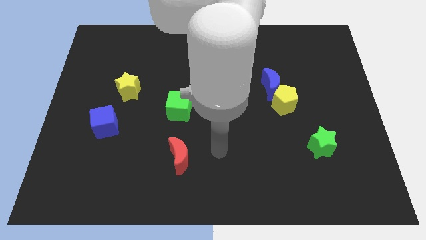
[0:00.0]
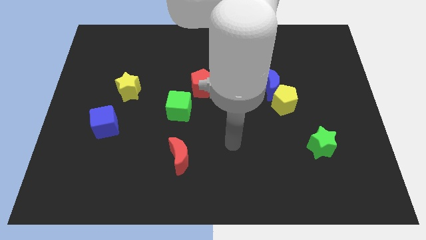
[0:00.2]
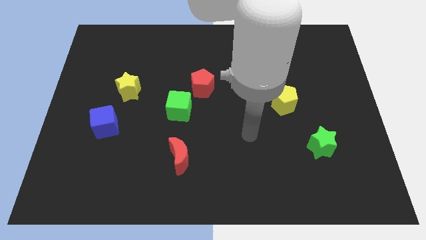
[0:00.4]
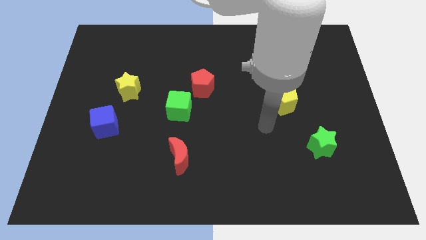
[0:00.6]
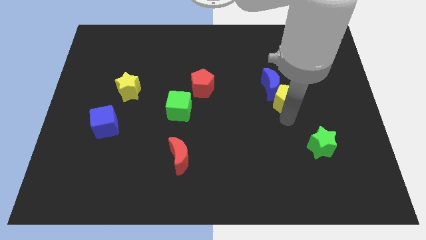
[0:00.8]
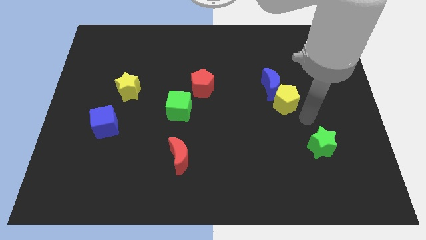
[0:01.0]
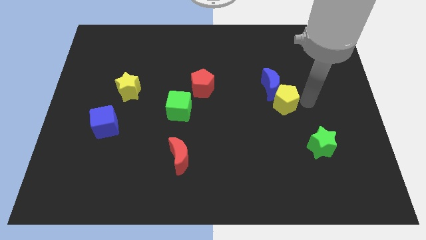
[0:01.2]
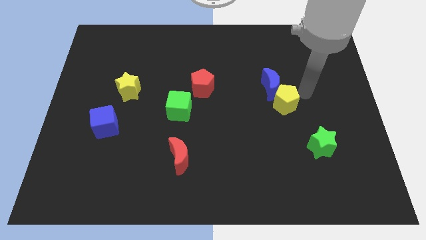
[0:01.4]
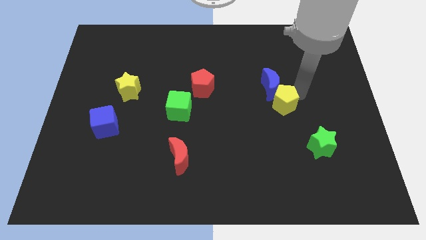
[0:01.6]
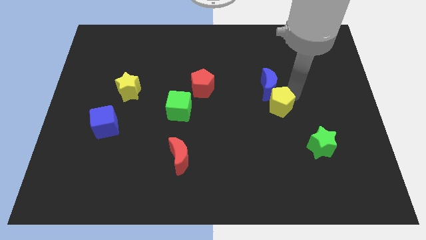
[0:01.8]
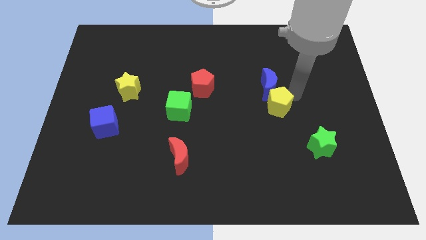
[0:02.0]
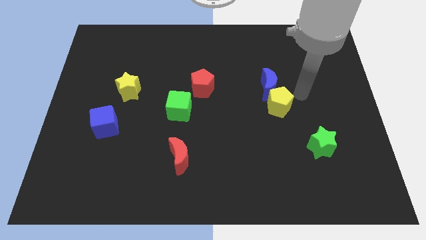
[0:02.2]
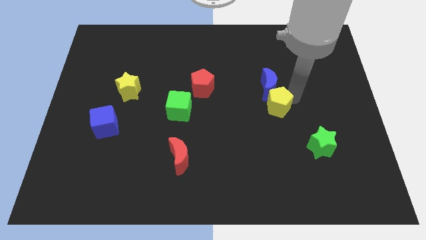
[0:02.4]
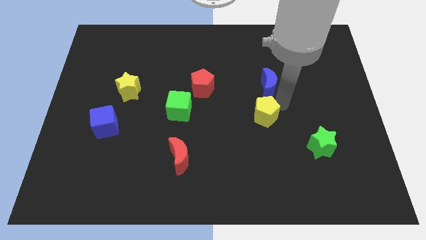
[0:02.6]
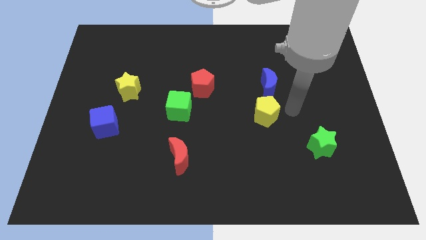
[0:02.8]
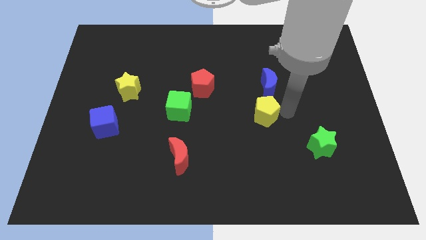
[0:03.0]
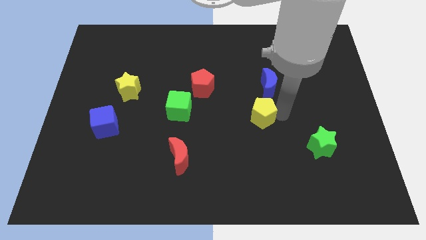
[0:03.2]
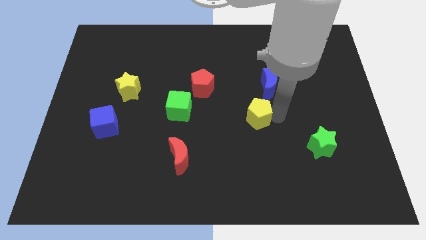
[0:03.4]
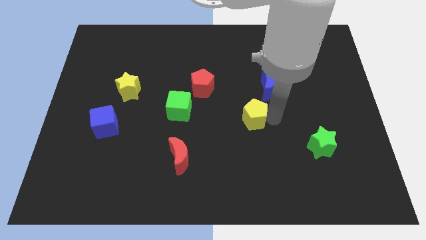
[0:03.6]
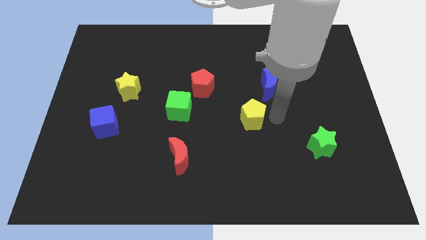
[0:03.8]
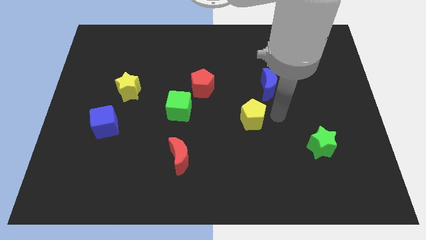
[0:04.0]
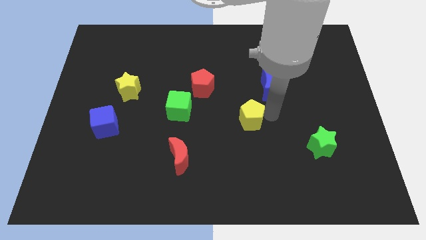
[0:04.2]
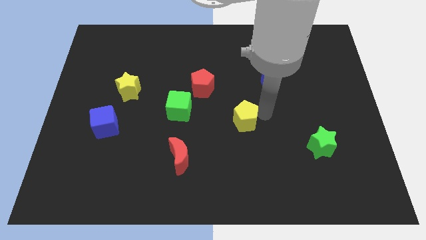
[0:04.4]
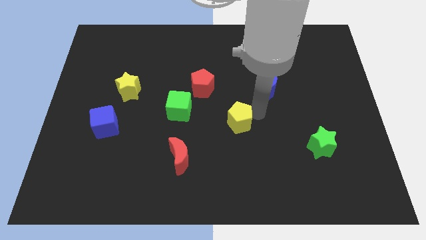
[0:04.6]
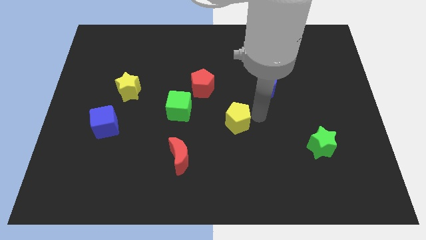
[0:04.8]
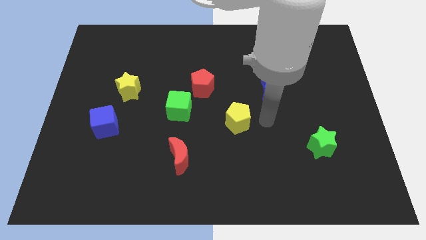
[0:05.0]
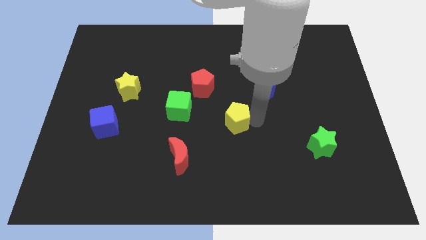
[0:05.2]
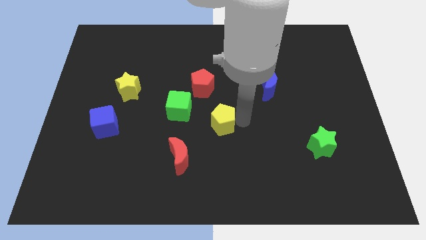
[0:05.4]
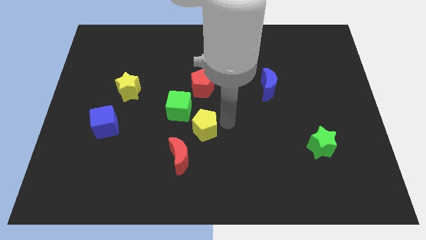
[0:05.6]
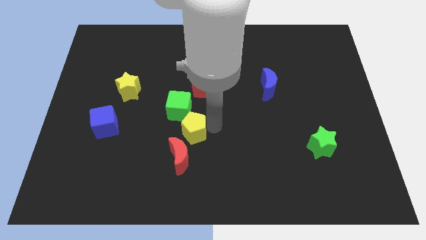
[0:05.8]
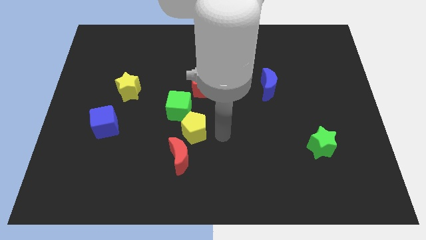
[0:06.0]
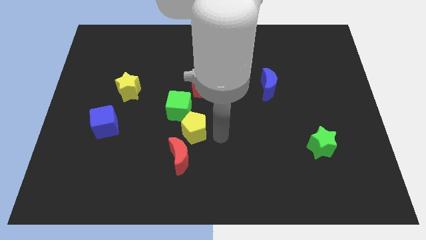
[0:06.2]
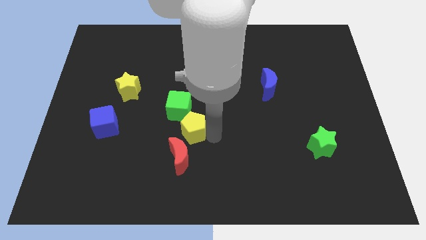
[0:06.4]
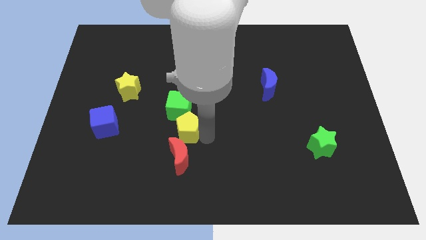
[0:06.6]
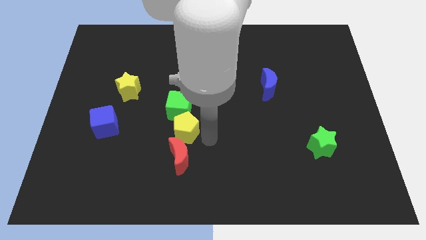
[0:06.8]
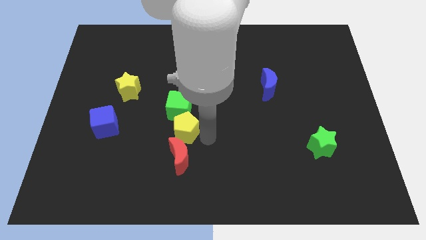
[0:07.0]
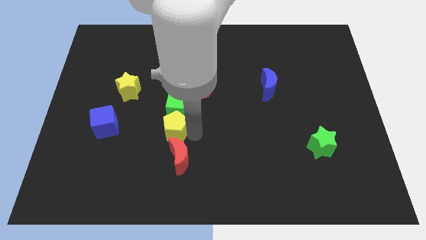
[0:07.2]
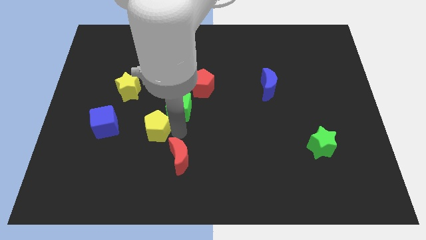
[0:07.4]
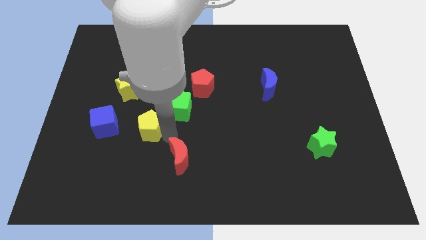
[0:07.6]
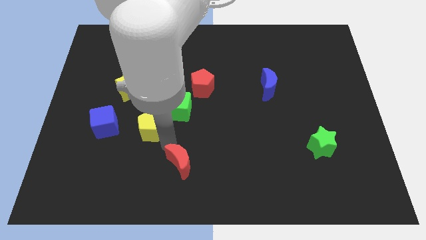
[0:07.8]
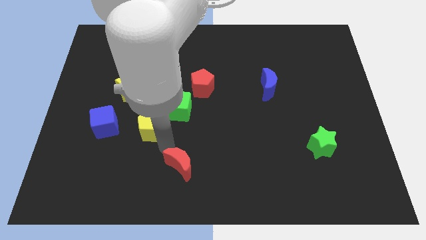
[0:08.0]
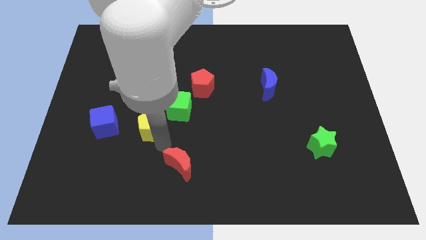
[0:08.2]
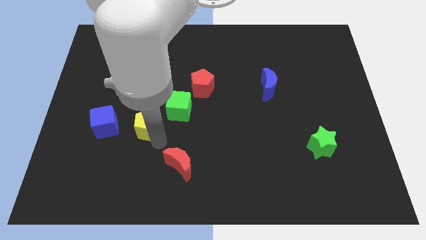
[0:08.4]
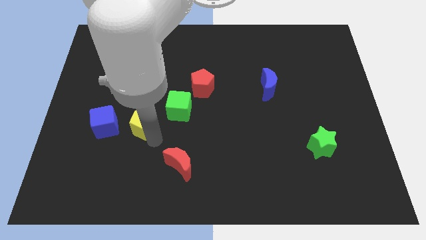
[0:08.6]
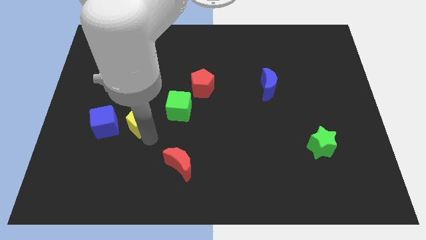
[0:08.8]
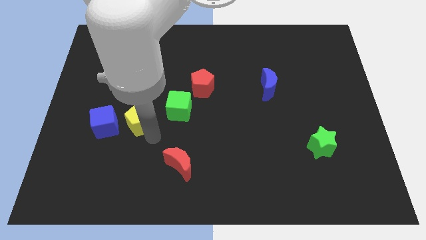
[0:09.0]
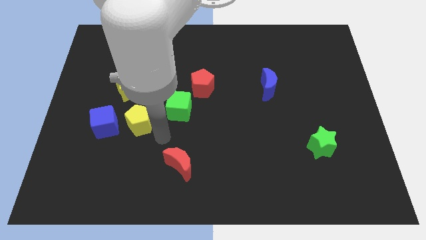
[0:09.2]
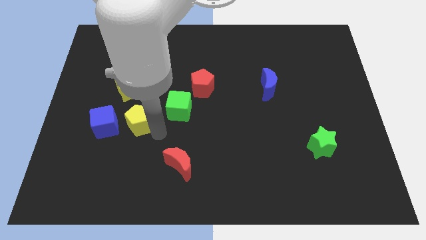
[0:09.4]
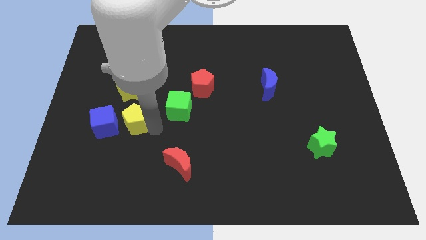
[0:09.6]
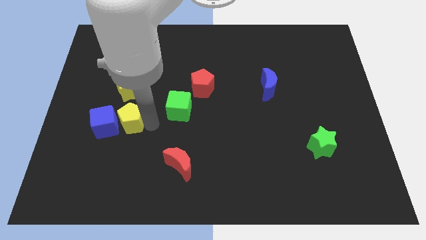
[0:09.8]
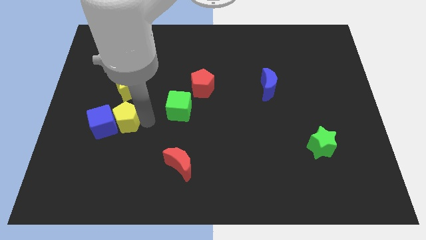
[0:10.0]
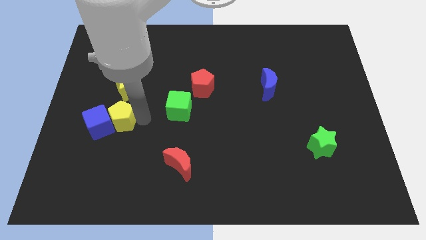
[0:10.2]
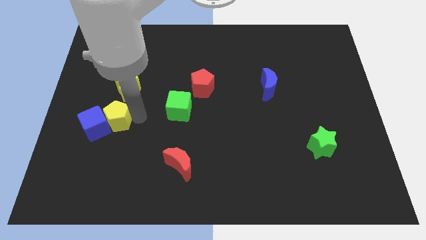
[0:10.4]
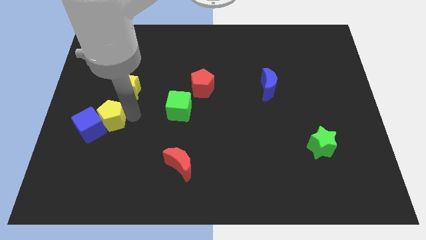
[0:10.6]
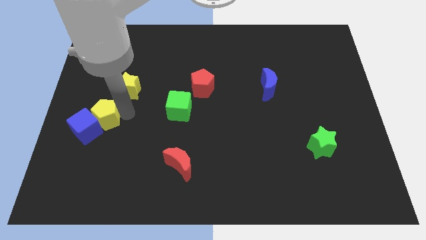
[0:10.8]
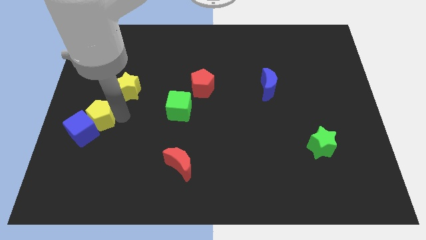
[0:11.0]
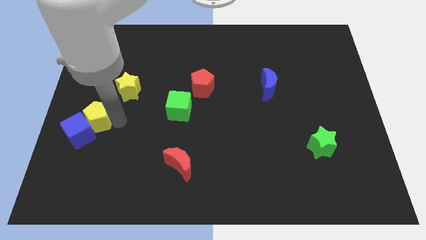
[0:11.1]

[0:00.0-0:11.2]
move the yellow pentagon to the left side

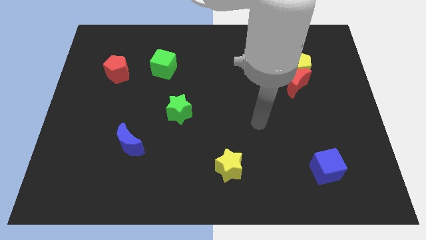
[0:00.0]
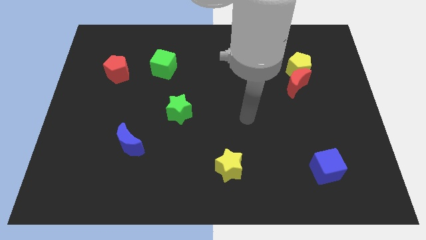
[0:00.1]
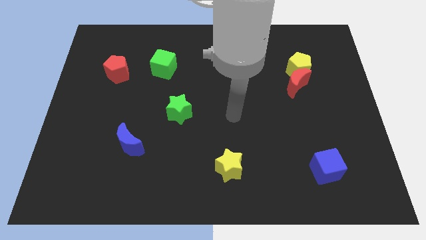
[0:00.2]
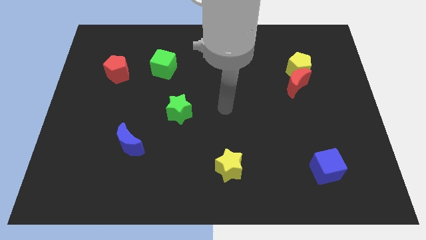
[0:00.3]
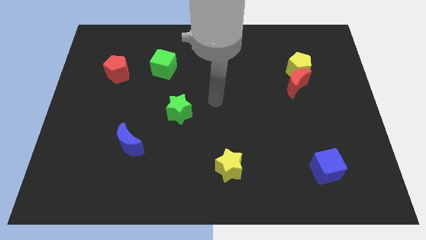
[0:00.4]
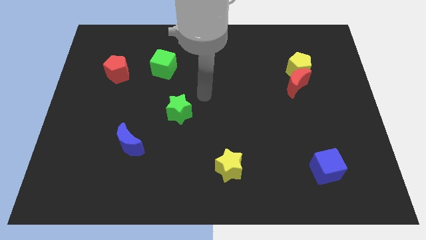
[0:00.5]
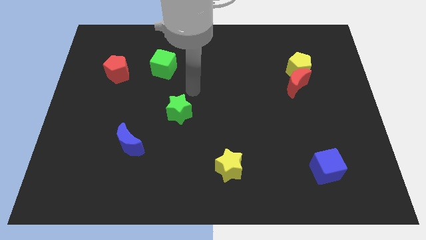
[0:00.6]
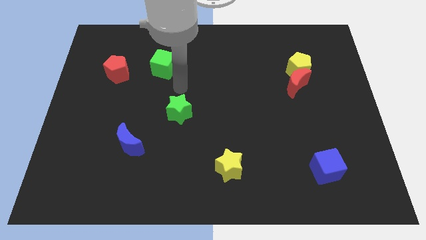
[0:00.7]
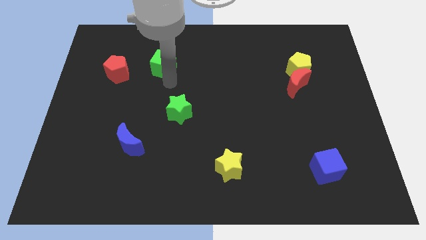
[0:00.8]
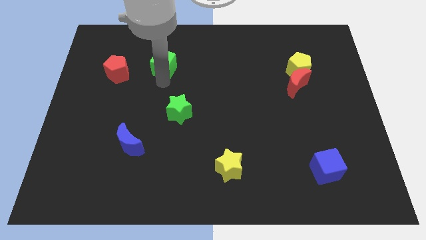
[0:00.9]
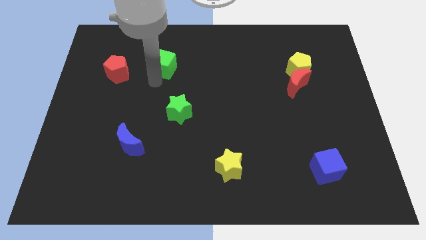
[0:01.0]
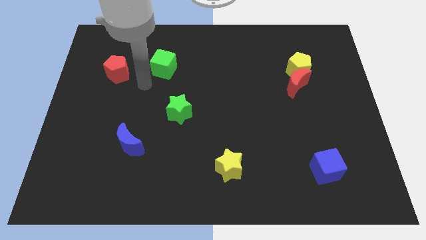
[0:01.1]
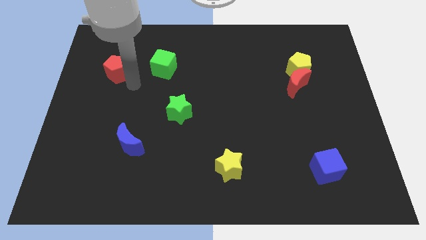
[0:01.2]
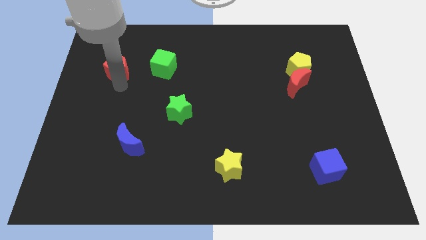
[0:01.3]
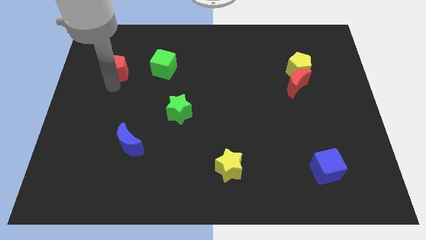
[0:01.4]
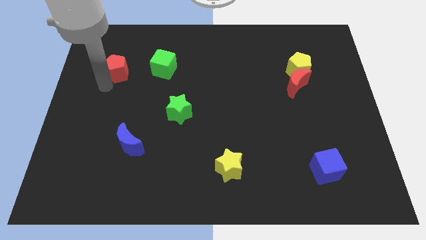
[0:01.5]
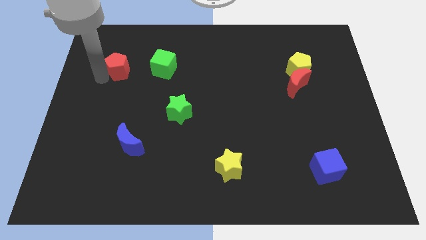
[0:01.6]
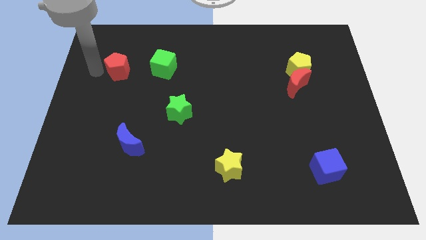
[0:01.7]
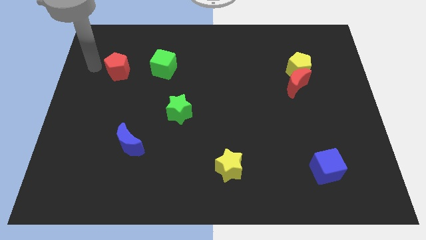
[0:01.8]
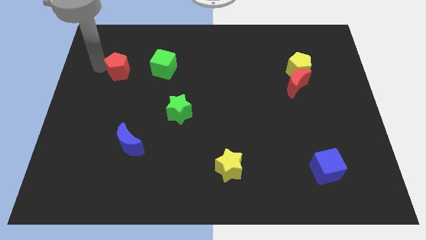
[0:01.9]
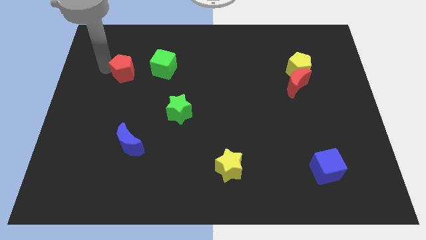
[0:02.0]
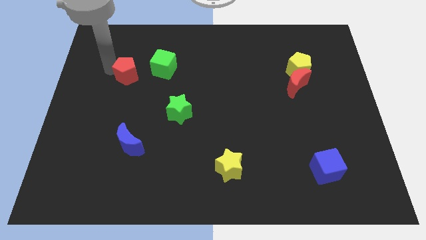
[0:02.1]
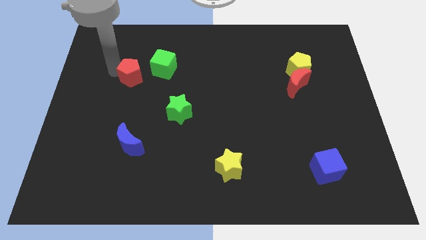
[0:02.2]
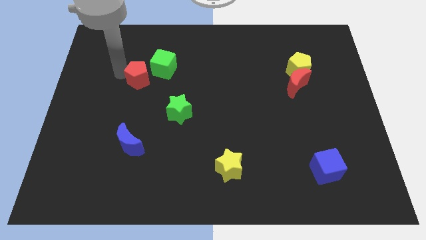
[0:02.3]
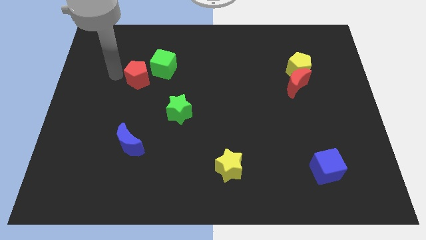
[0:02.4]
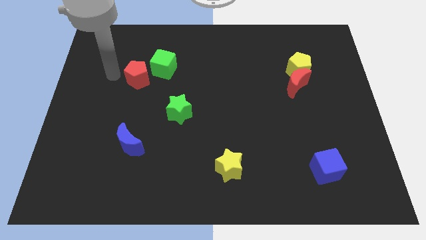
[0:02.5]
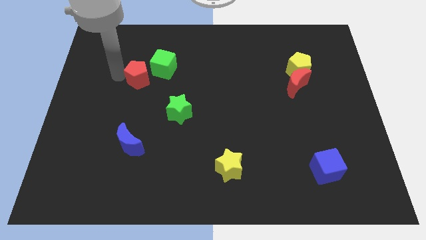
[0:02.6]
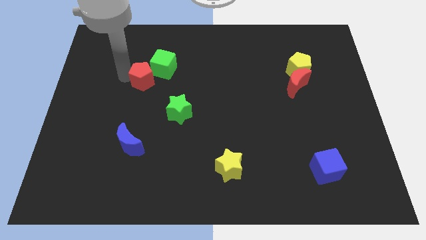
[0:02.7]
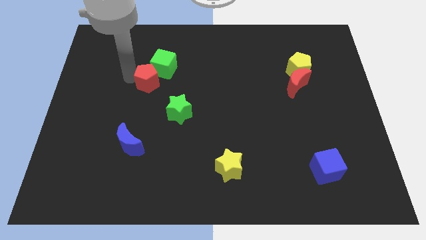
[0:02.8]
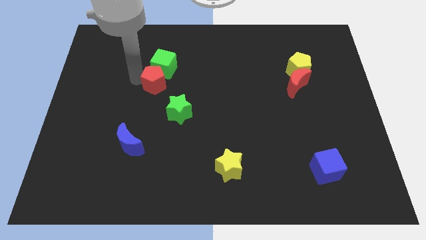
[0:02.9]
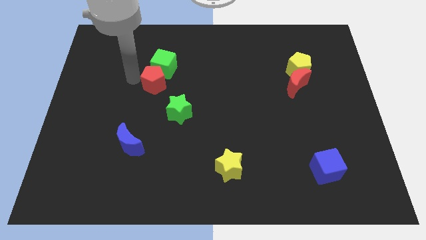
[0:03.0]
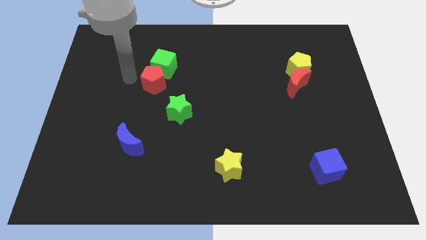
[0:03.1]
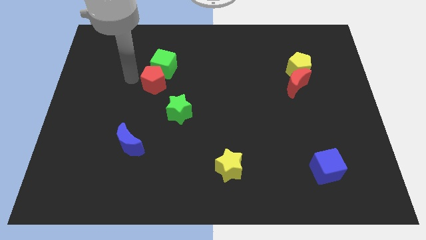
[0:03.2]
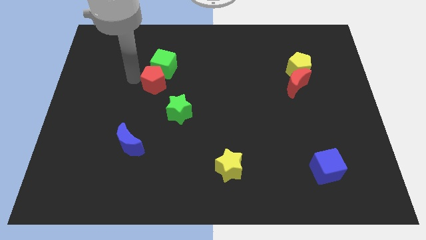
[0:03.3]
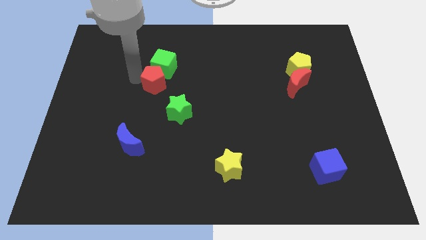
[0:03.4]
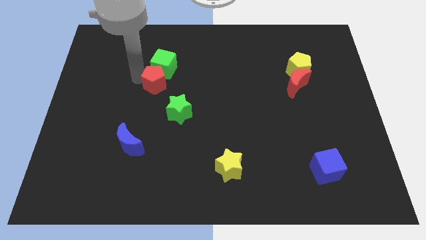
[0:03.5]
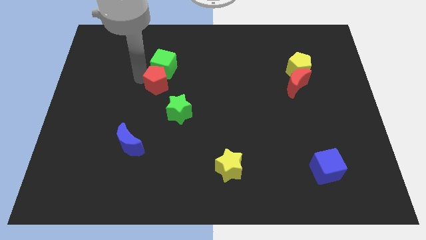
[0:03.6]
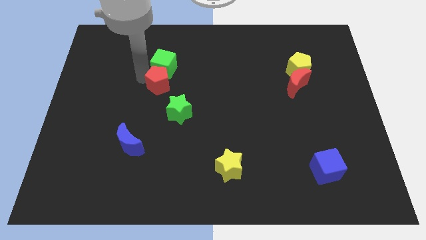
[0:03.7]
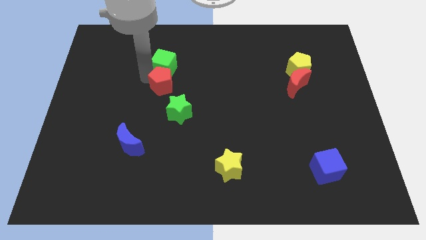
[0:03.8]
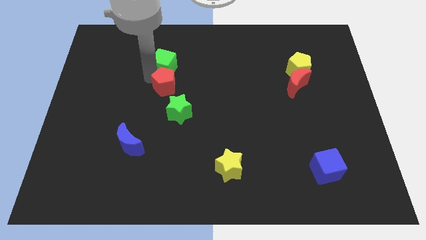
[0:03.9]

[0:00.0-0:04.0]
put the red pentagon to the middle of the board
